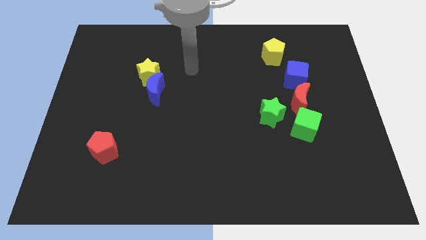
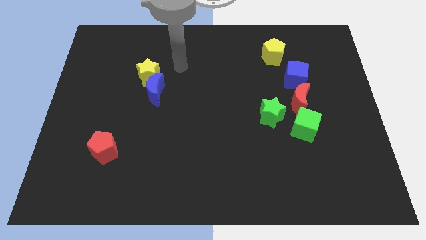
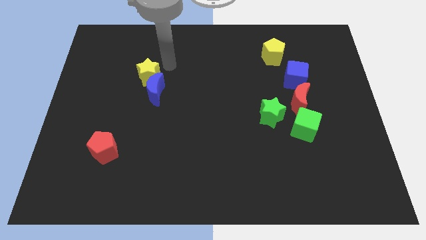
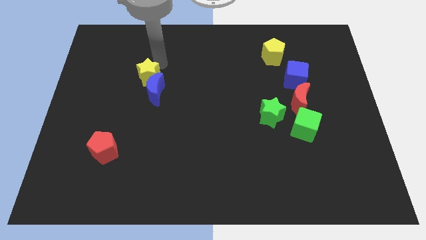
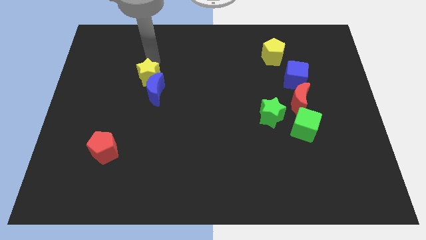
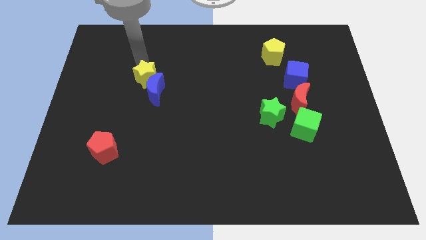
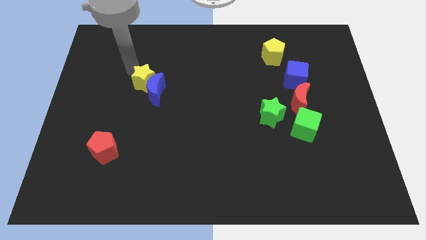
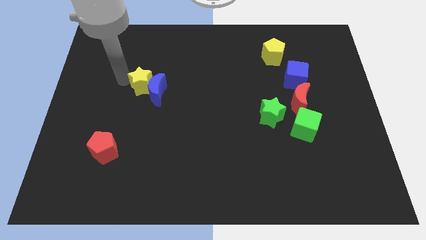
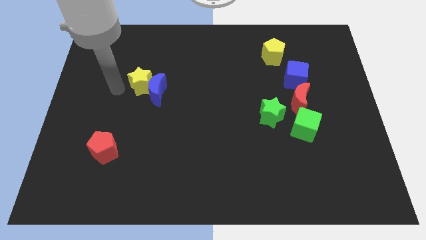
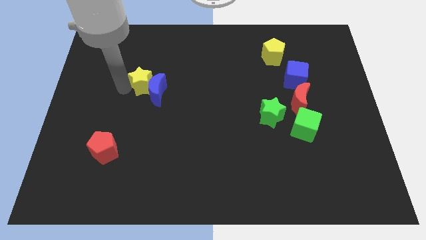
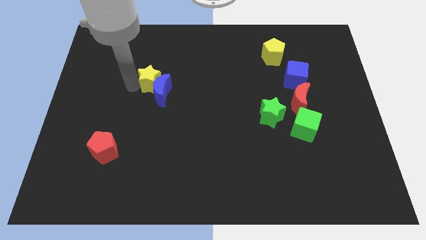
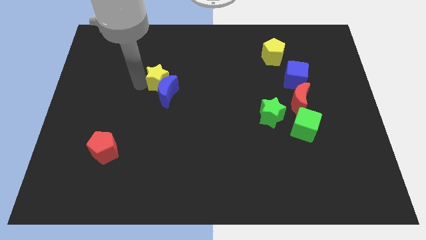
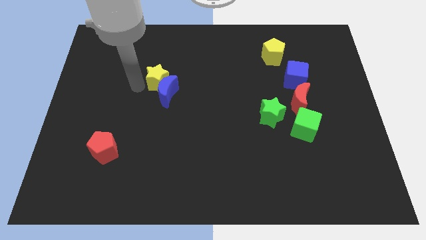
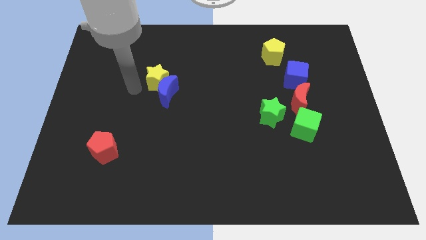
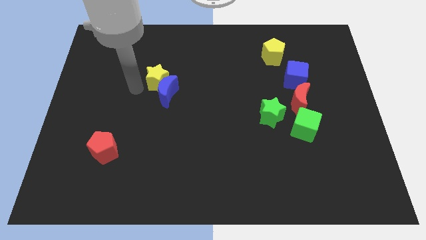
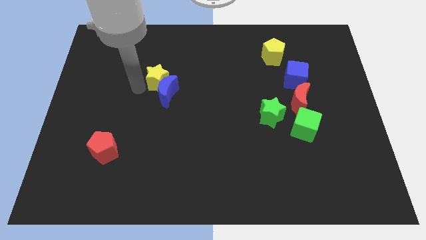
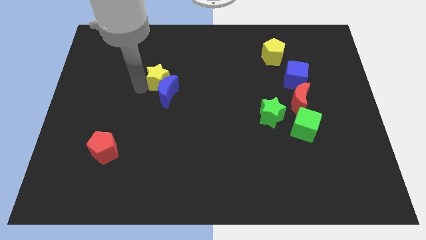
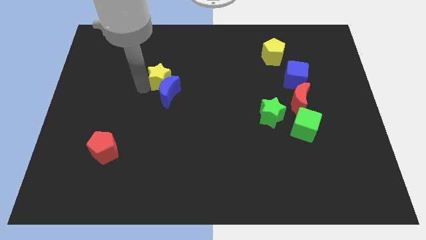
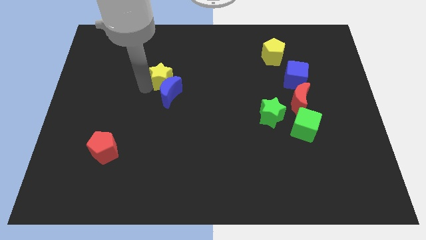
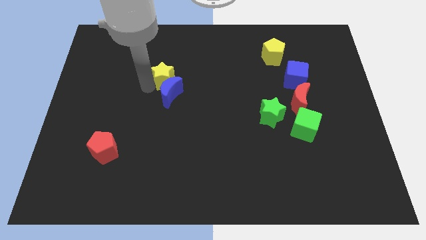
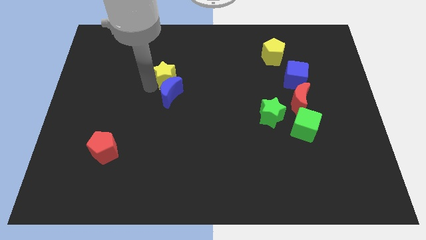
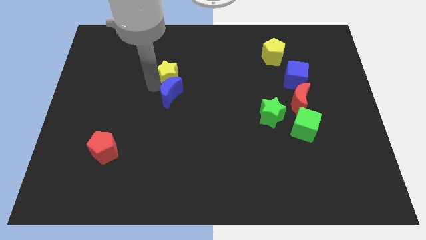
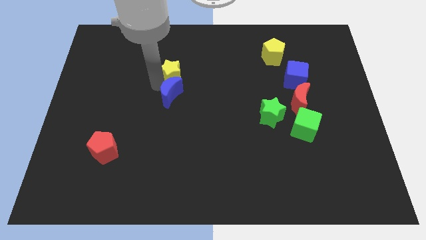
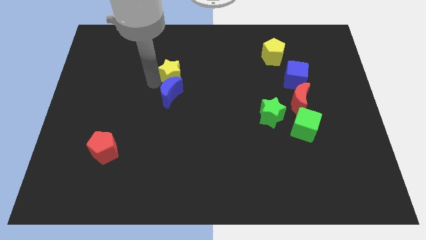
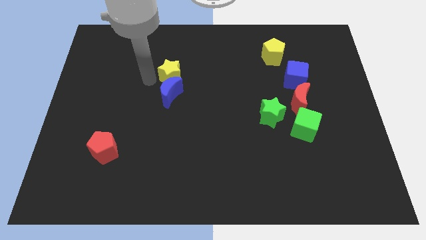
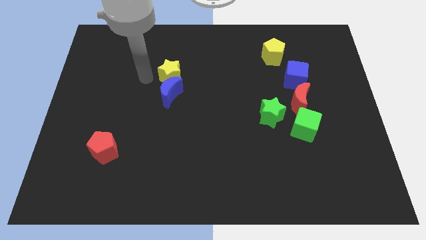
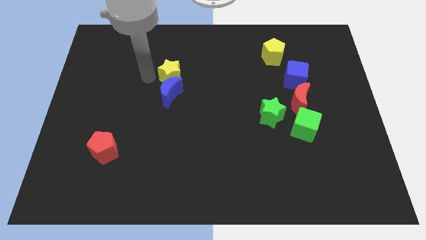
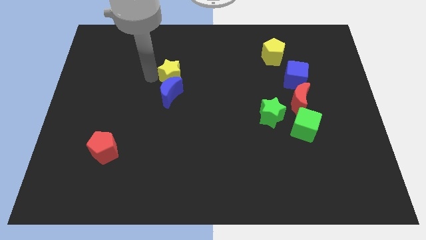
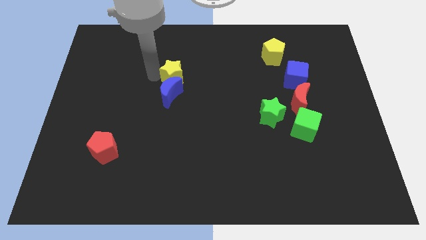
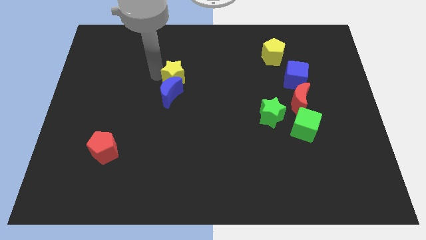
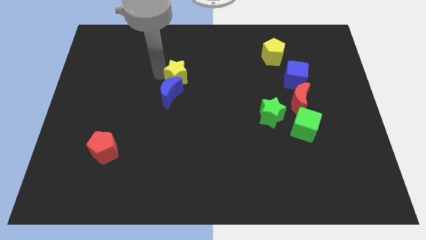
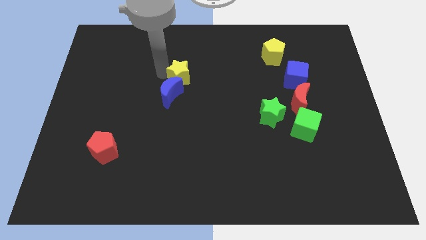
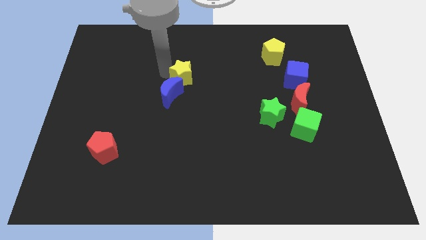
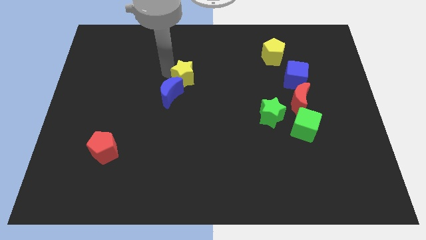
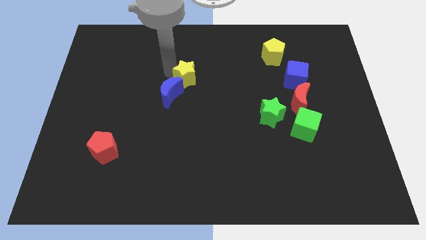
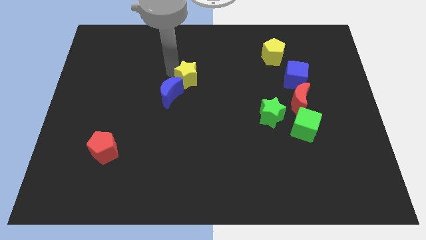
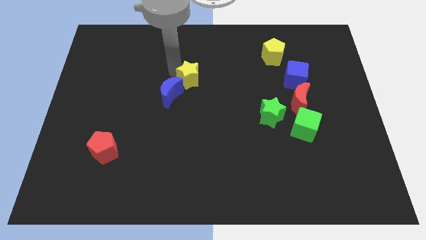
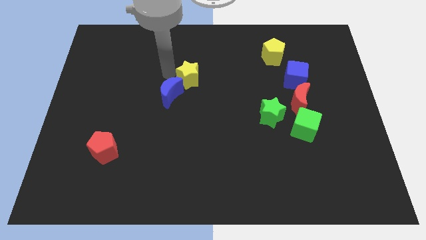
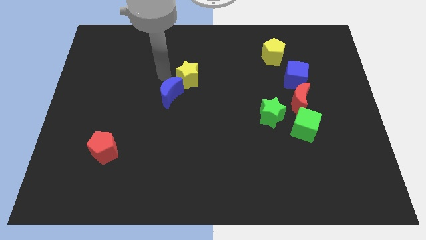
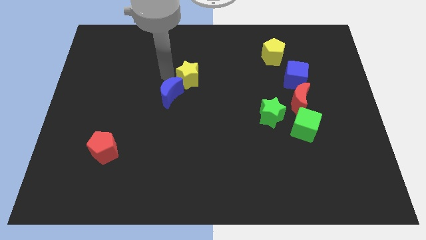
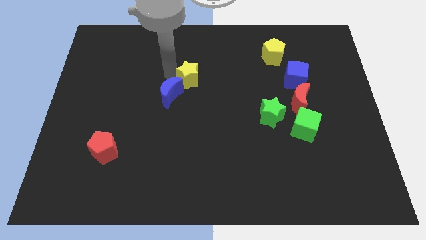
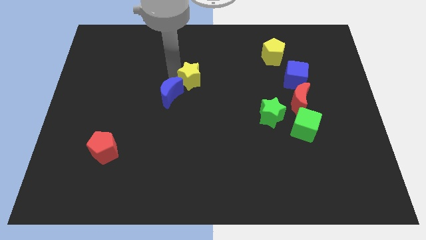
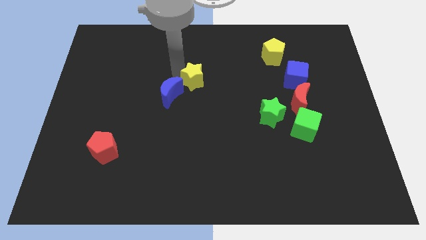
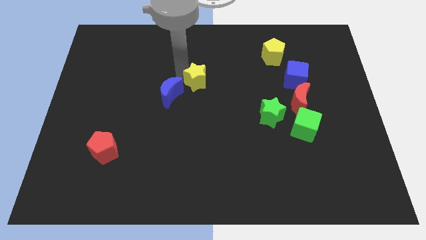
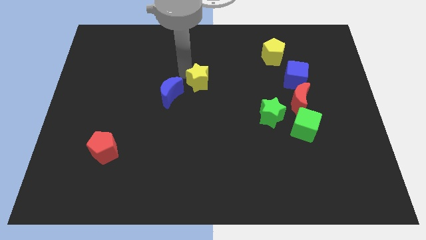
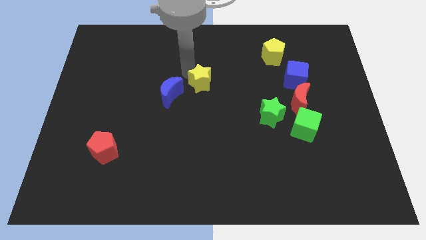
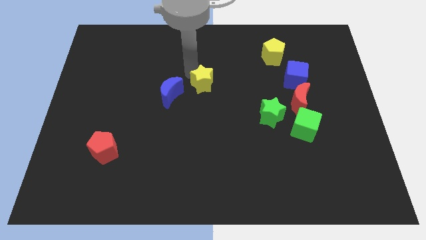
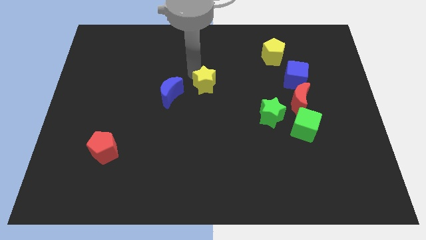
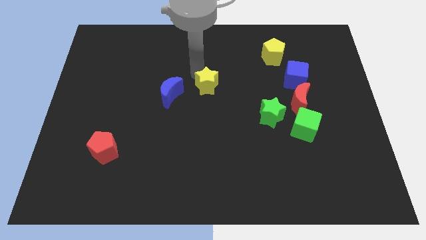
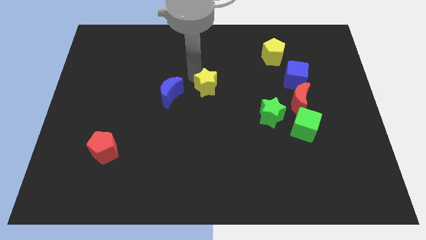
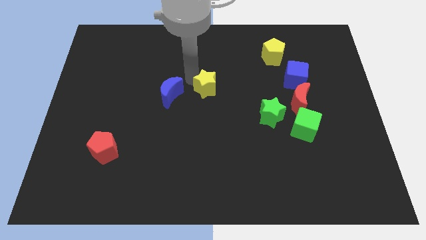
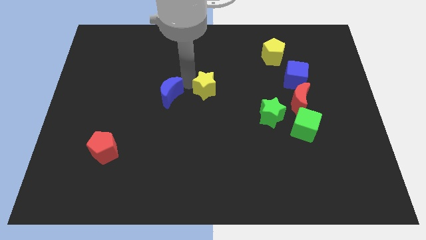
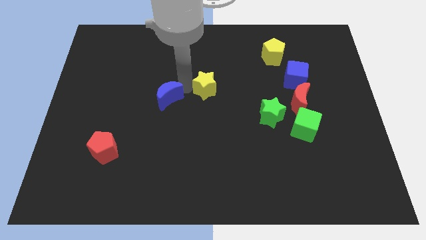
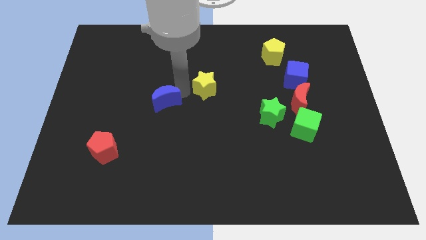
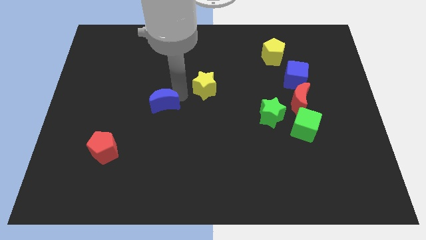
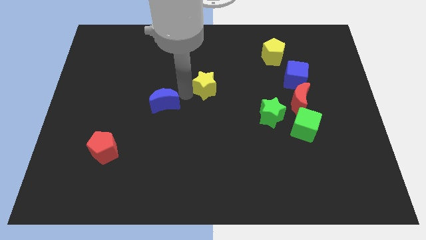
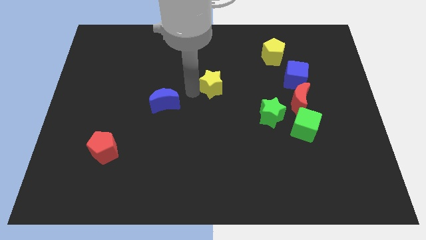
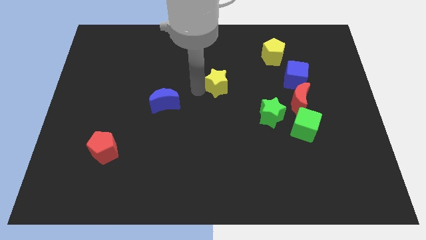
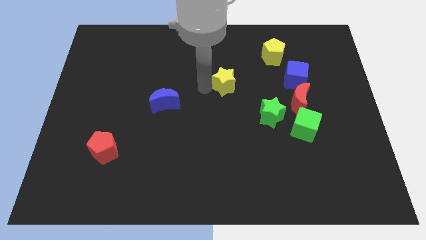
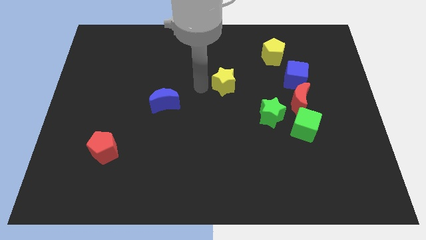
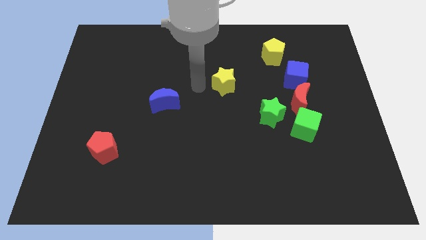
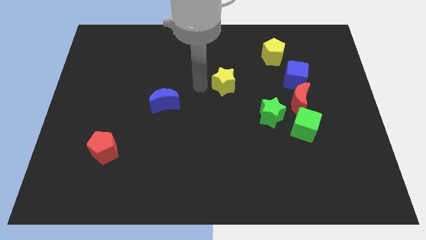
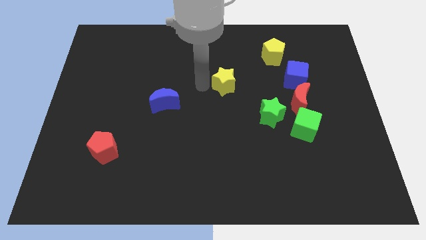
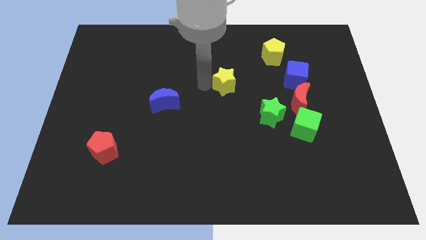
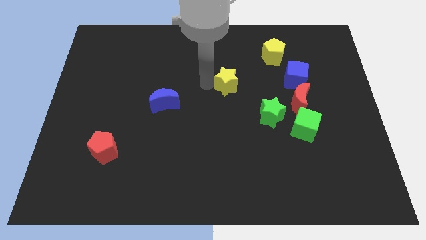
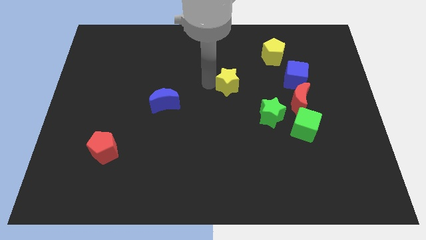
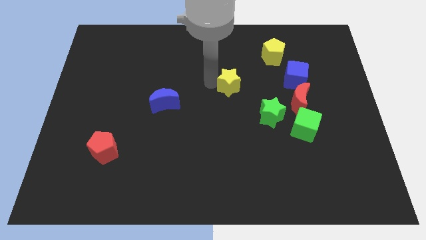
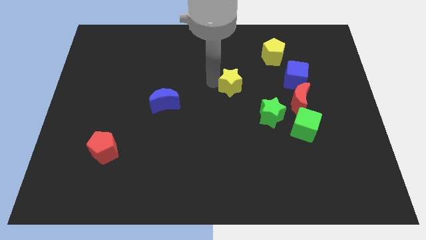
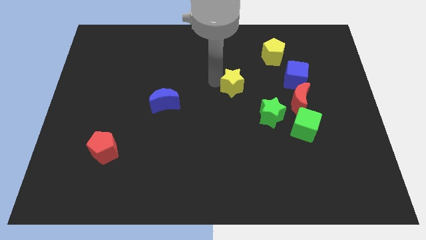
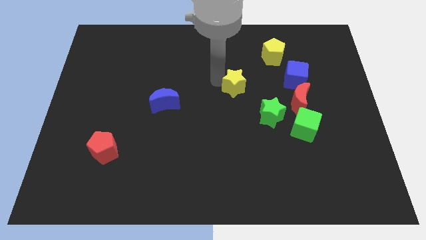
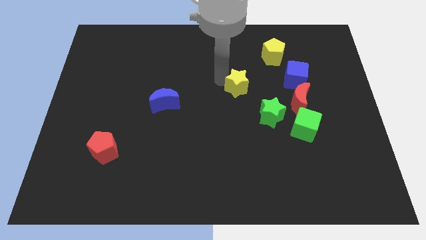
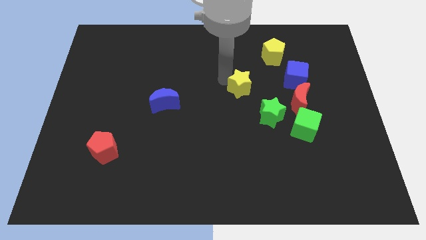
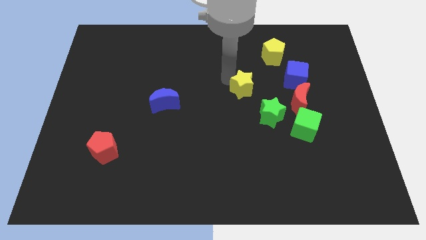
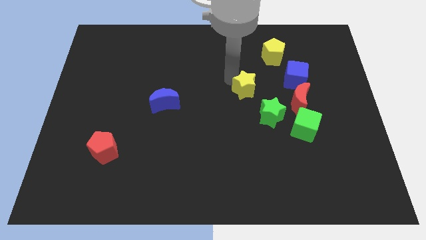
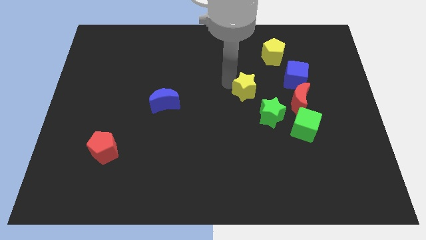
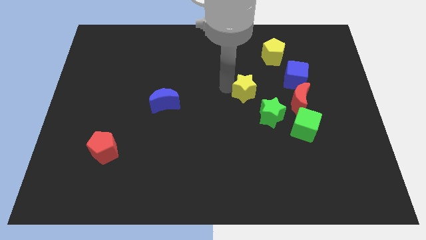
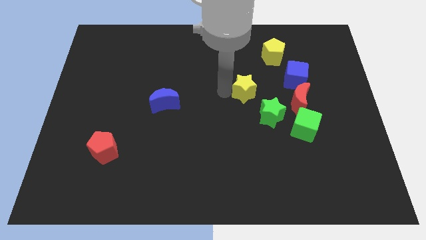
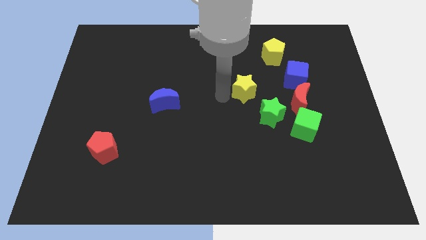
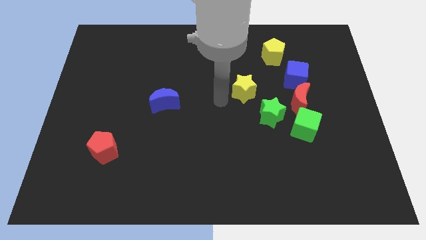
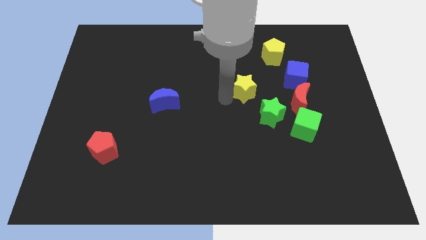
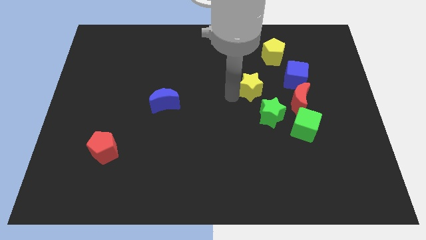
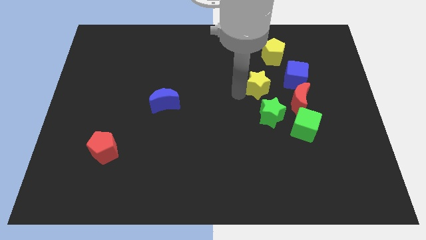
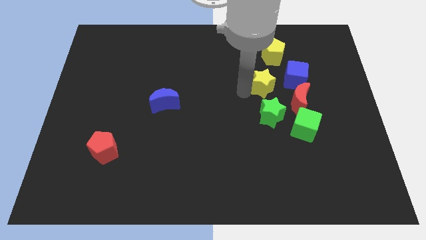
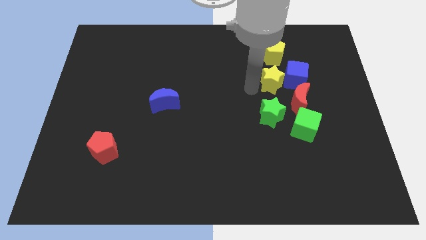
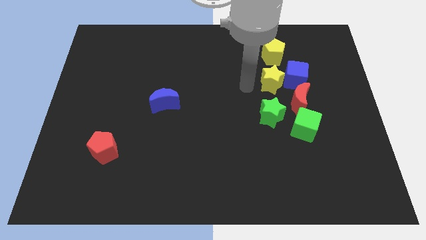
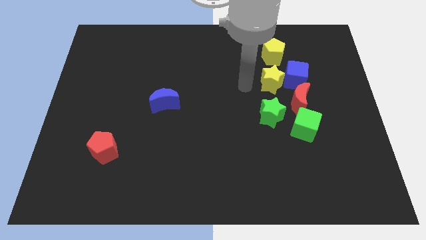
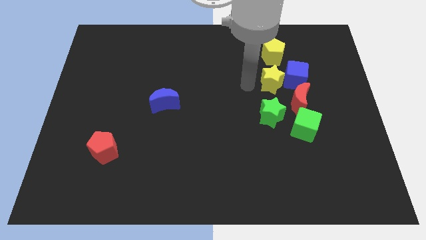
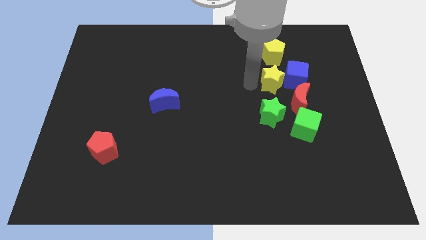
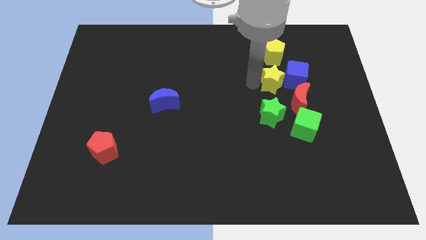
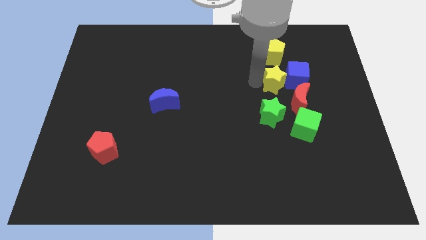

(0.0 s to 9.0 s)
slide the yellow star close to the blue cube
